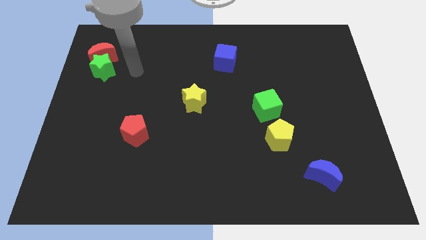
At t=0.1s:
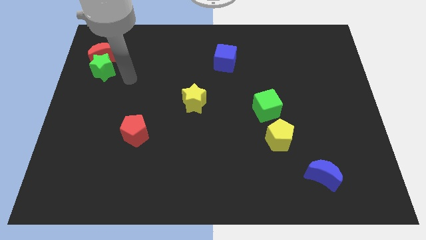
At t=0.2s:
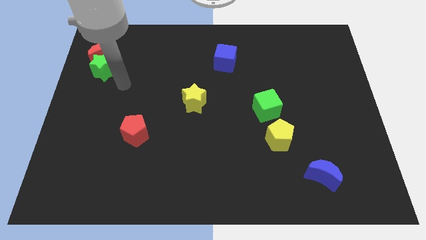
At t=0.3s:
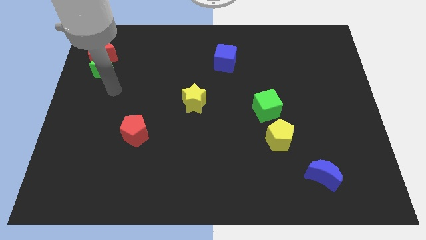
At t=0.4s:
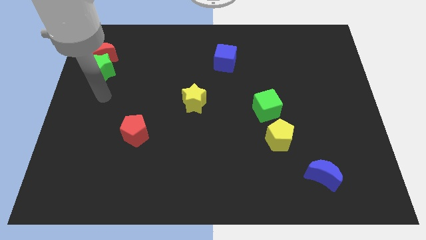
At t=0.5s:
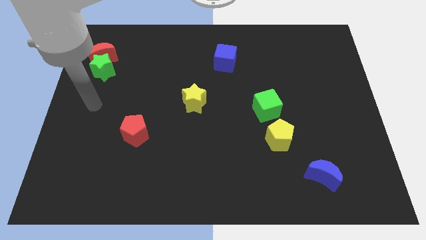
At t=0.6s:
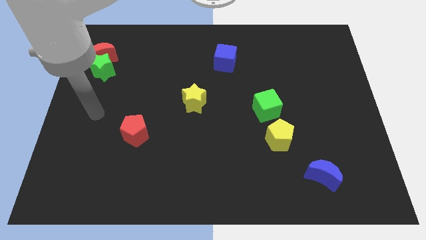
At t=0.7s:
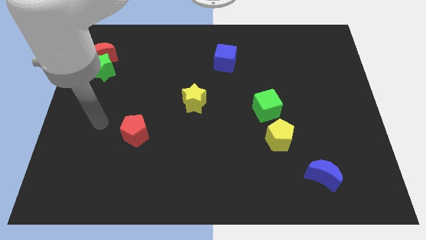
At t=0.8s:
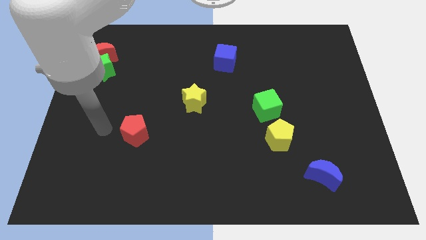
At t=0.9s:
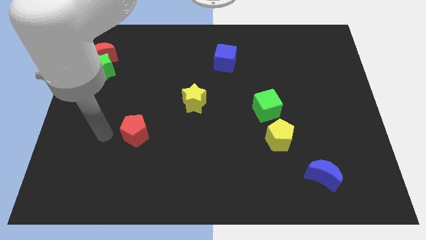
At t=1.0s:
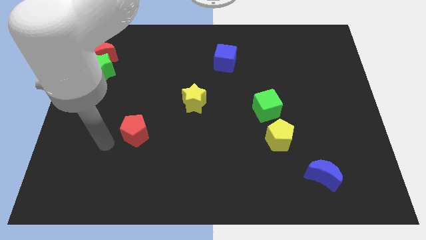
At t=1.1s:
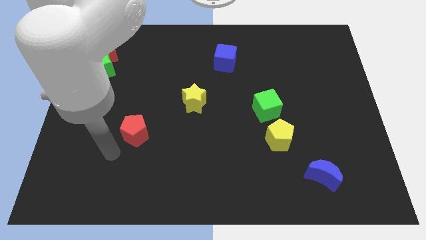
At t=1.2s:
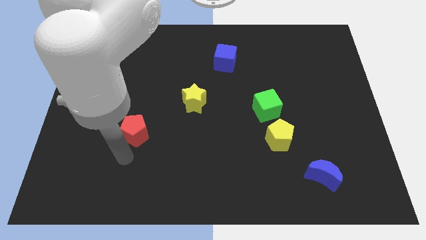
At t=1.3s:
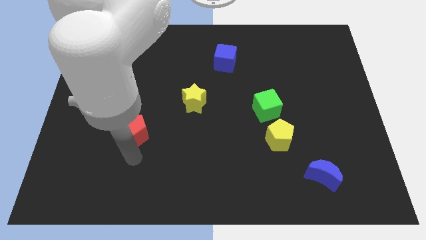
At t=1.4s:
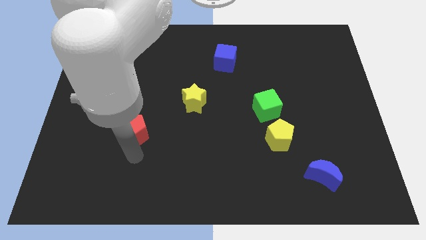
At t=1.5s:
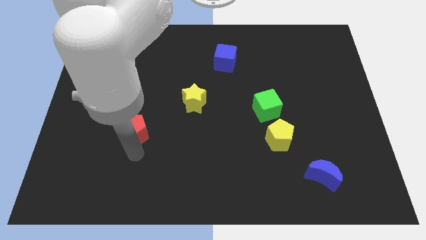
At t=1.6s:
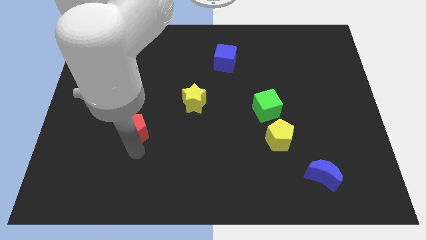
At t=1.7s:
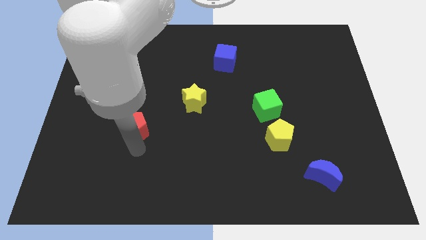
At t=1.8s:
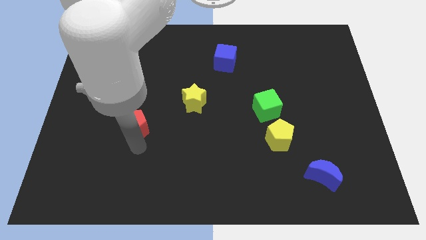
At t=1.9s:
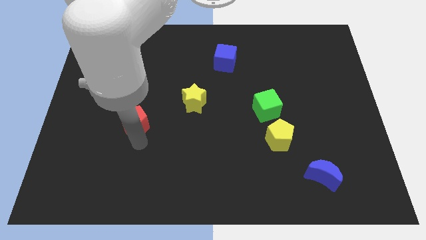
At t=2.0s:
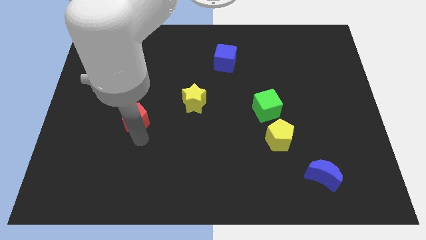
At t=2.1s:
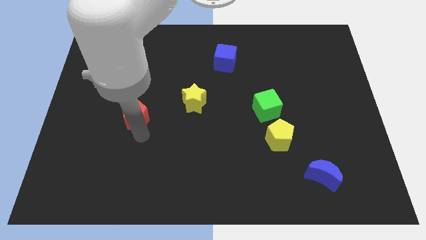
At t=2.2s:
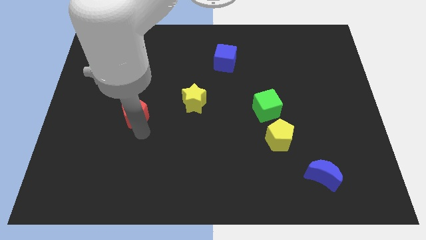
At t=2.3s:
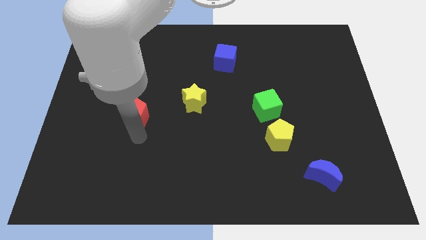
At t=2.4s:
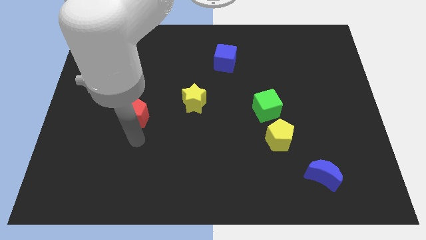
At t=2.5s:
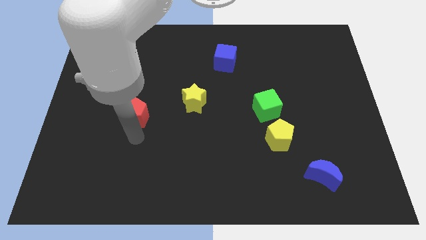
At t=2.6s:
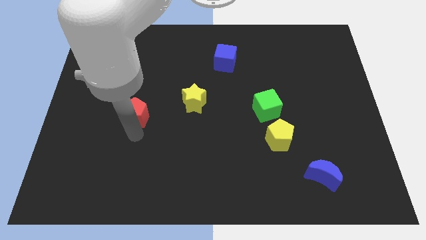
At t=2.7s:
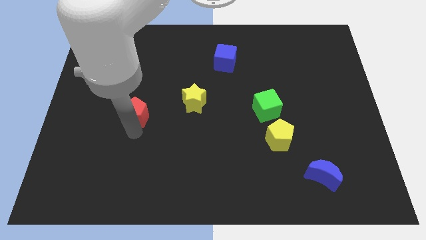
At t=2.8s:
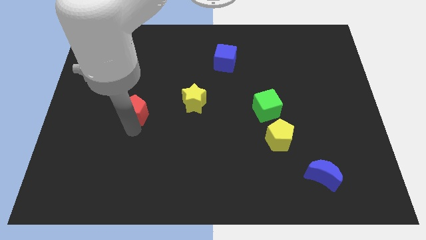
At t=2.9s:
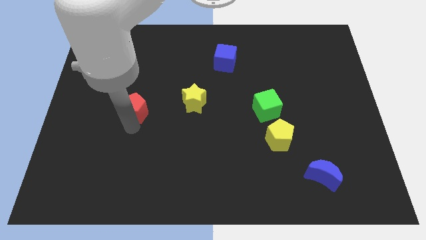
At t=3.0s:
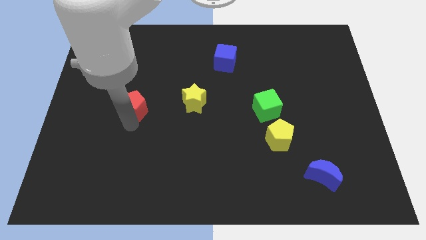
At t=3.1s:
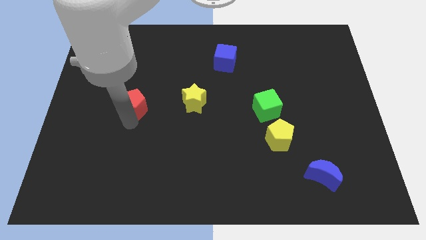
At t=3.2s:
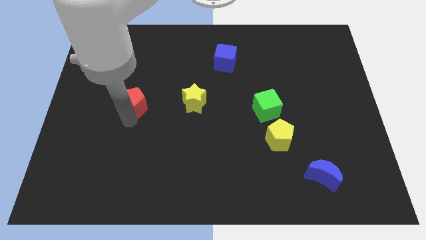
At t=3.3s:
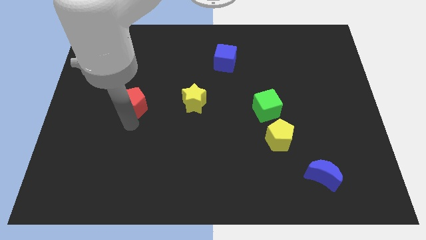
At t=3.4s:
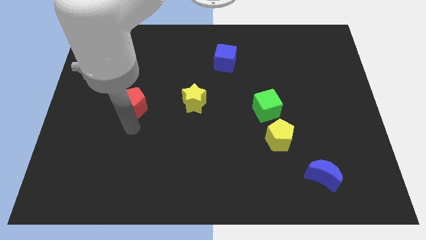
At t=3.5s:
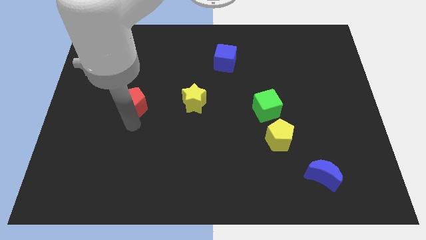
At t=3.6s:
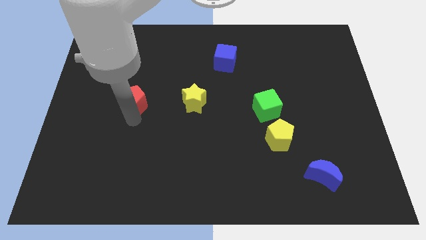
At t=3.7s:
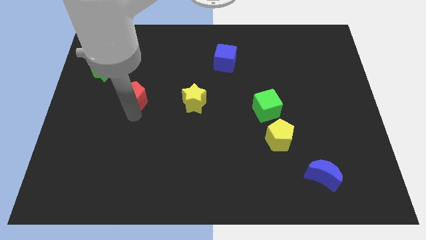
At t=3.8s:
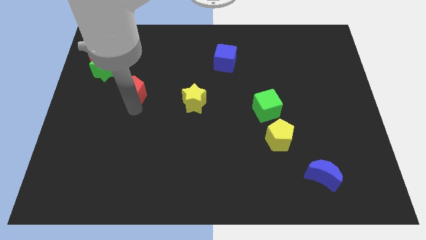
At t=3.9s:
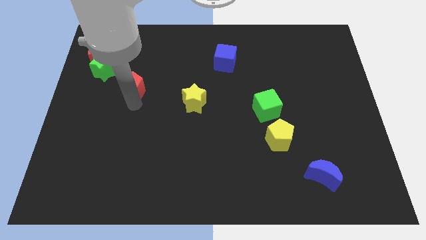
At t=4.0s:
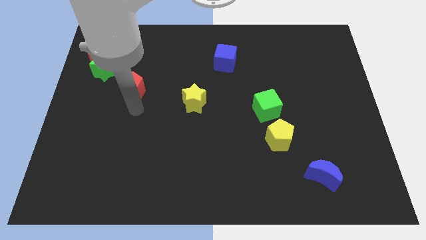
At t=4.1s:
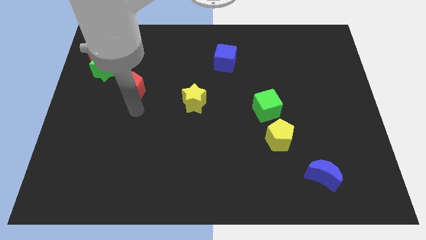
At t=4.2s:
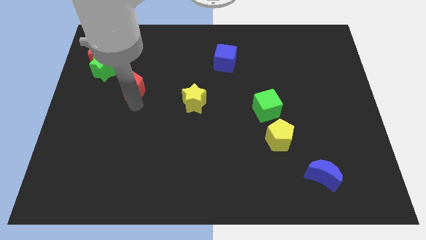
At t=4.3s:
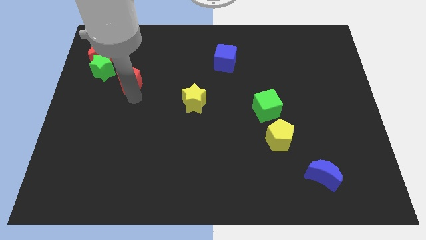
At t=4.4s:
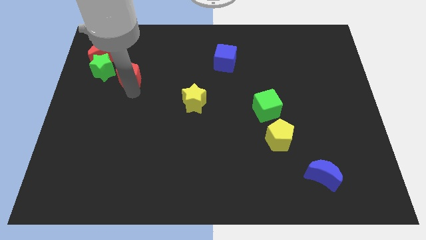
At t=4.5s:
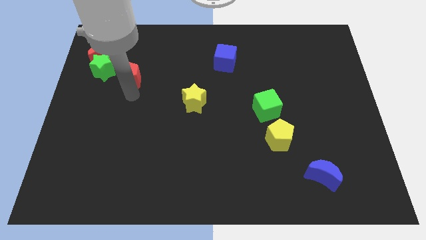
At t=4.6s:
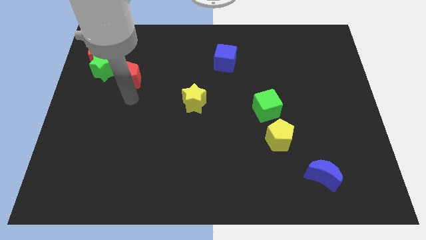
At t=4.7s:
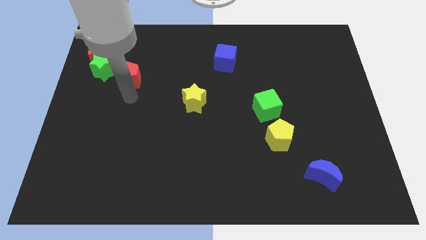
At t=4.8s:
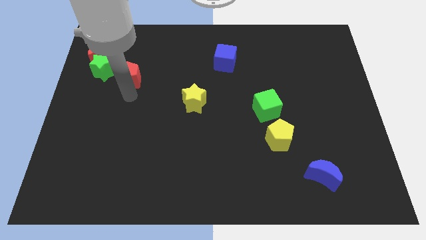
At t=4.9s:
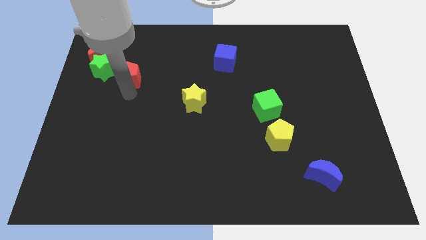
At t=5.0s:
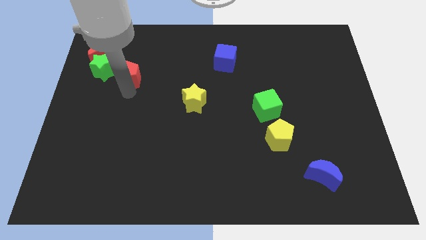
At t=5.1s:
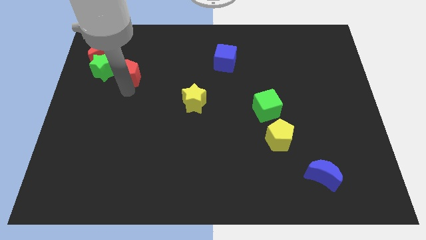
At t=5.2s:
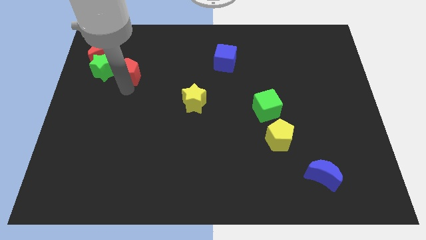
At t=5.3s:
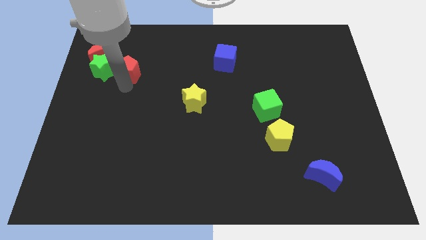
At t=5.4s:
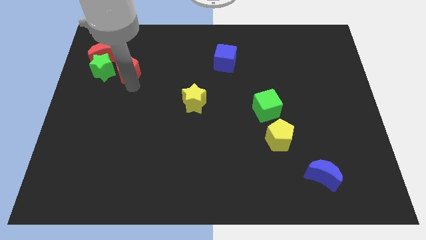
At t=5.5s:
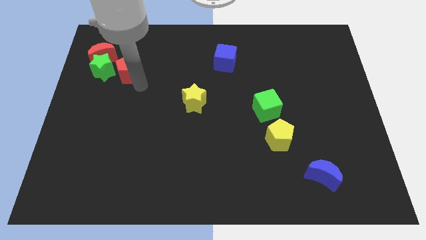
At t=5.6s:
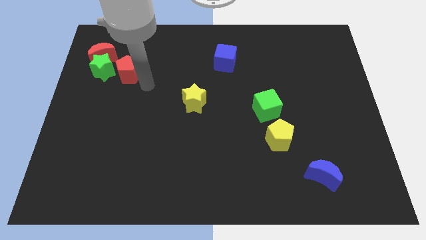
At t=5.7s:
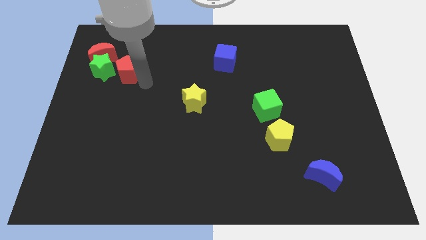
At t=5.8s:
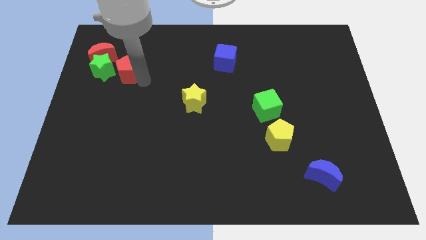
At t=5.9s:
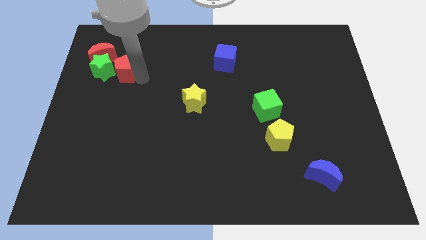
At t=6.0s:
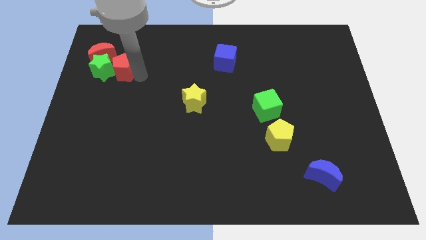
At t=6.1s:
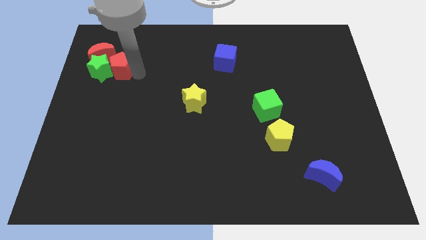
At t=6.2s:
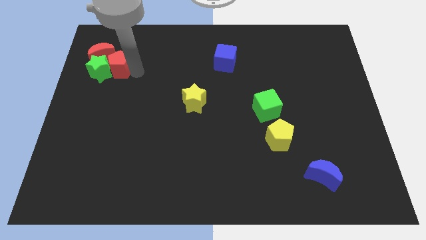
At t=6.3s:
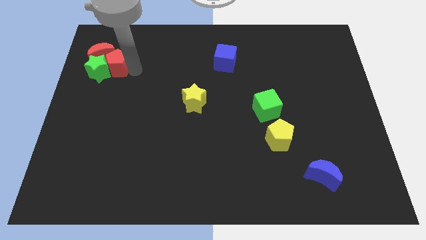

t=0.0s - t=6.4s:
put the red pentagon close to the red moon

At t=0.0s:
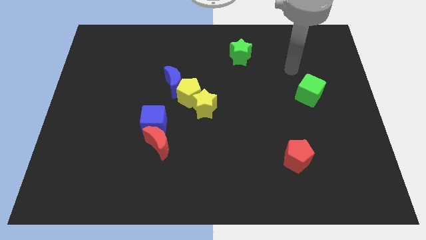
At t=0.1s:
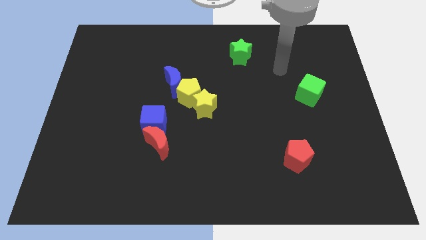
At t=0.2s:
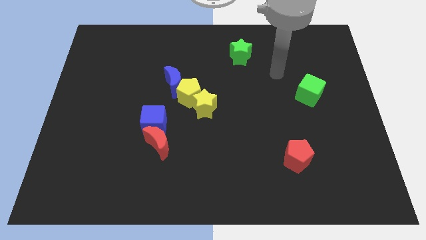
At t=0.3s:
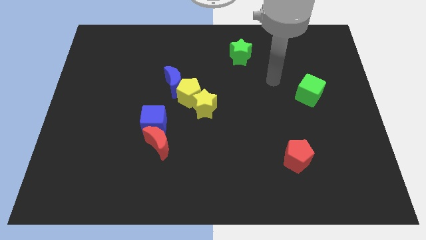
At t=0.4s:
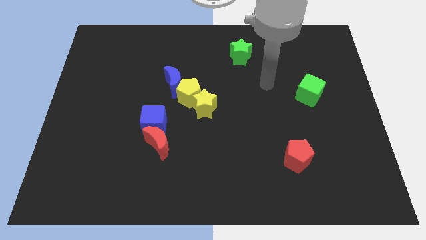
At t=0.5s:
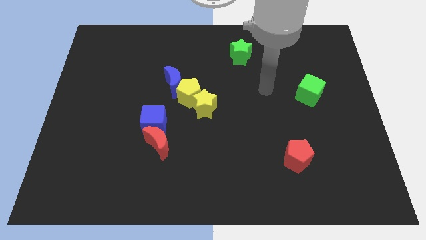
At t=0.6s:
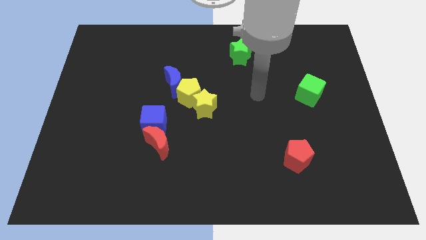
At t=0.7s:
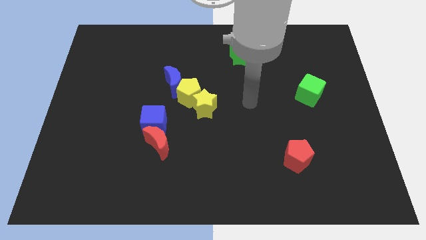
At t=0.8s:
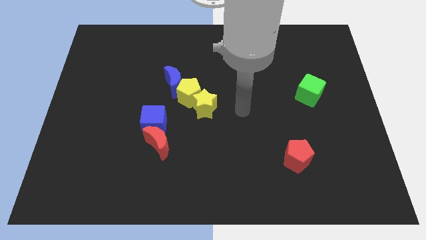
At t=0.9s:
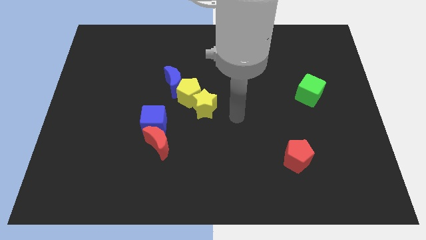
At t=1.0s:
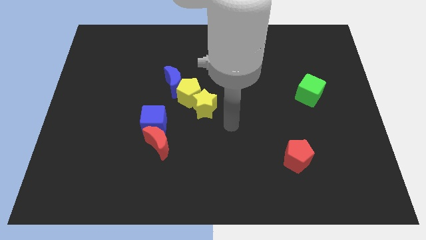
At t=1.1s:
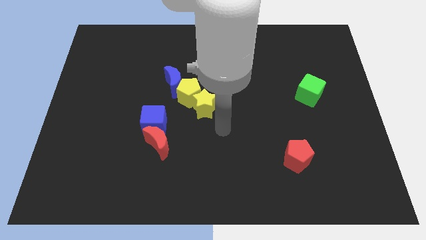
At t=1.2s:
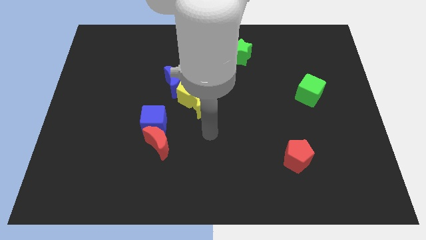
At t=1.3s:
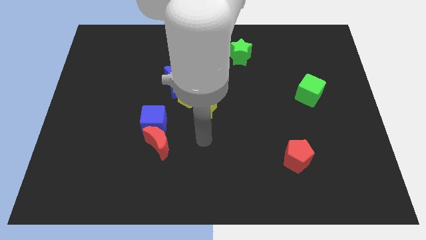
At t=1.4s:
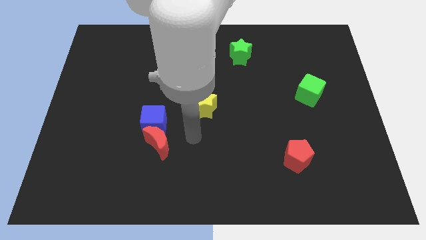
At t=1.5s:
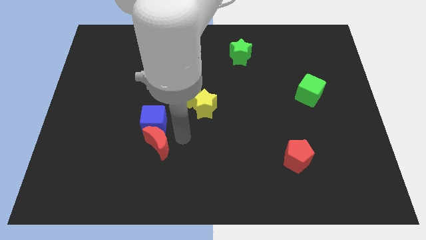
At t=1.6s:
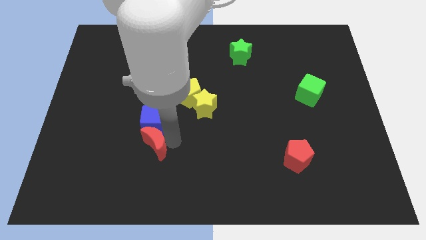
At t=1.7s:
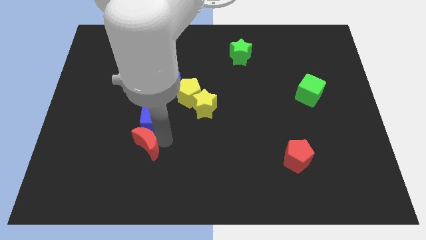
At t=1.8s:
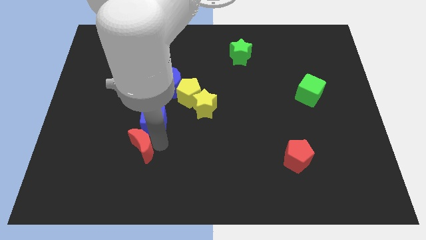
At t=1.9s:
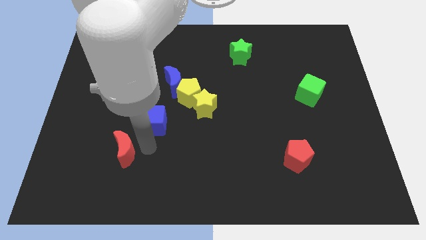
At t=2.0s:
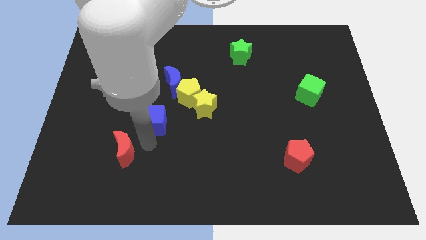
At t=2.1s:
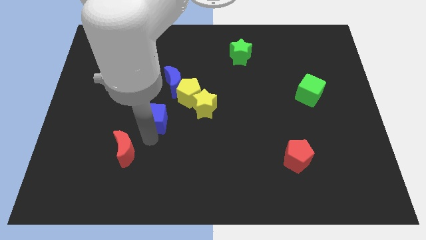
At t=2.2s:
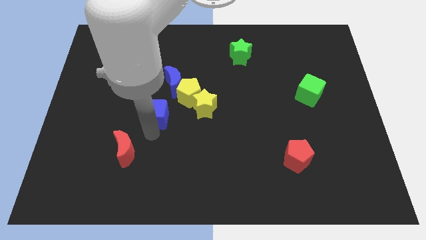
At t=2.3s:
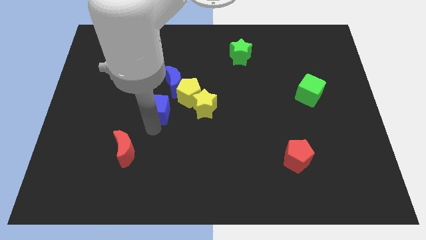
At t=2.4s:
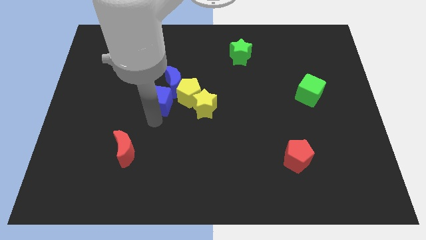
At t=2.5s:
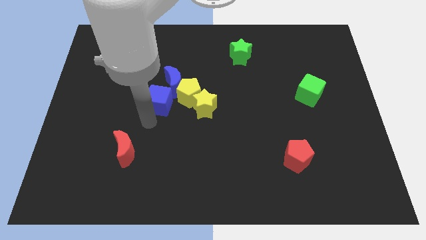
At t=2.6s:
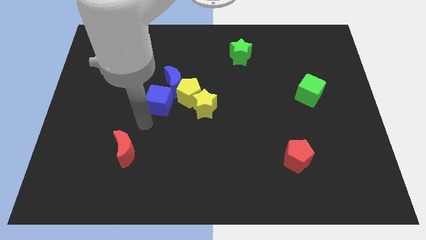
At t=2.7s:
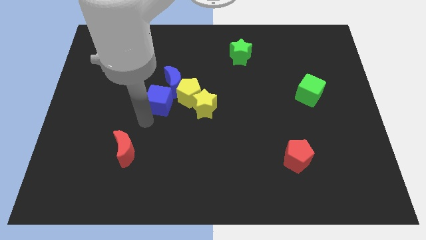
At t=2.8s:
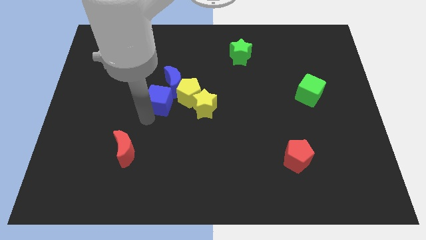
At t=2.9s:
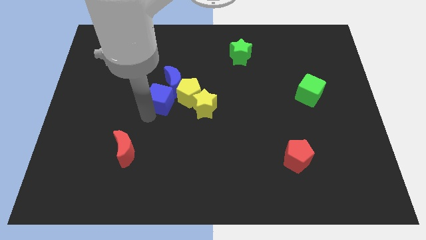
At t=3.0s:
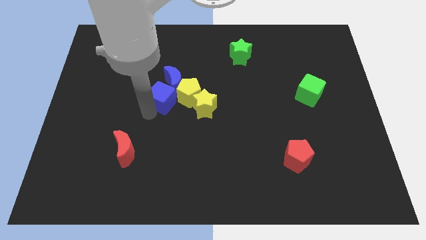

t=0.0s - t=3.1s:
push the blue cube to the blue moon
